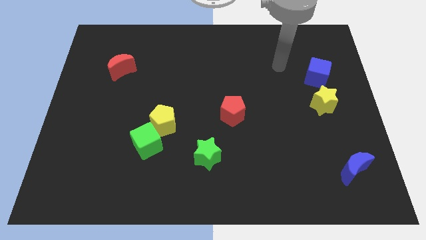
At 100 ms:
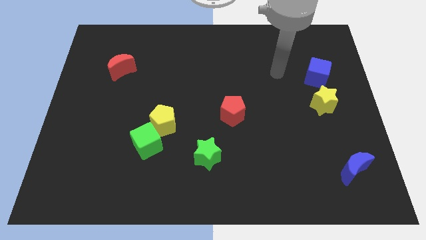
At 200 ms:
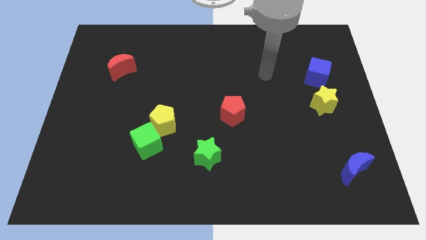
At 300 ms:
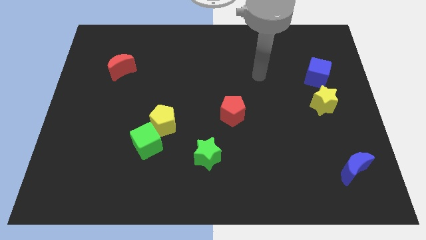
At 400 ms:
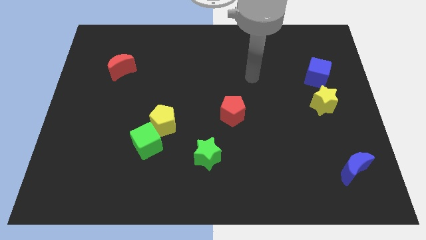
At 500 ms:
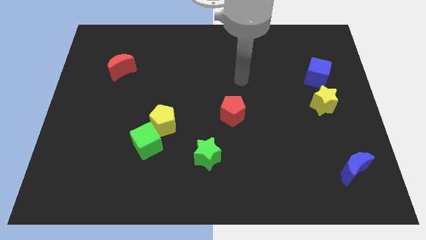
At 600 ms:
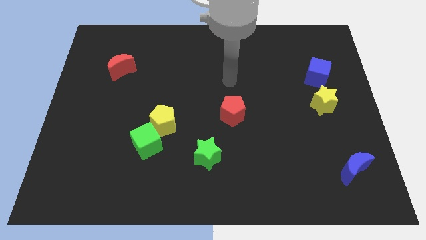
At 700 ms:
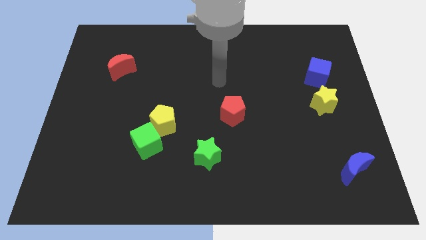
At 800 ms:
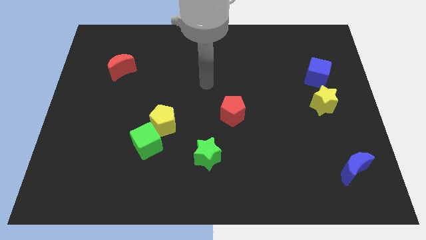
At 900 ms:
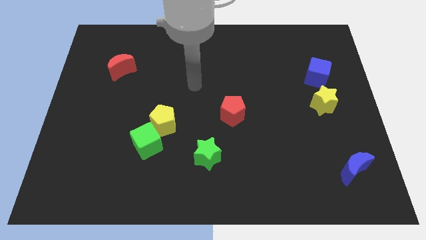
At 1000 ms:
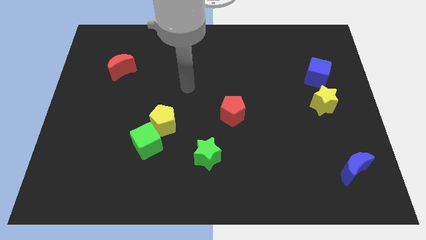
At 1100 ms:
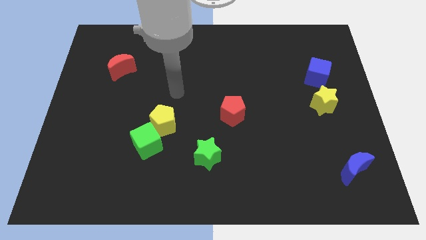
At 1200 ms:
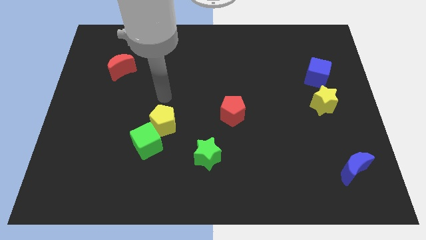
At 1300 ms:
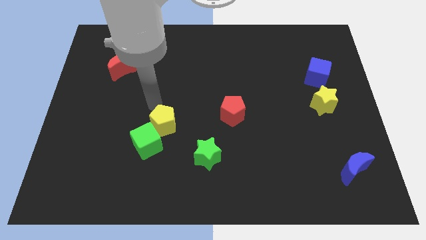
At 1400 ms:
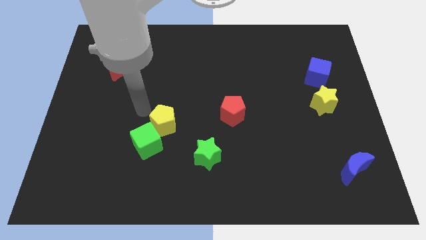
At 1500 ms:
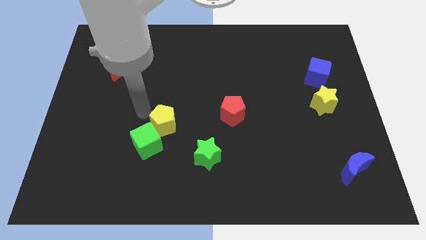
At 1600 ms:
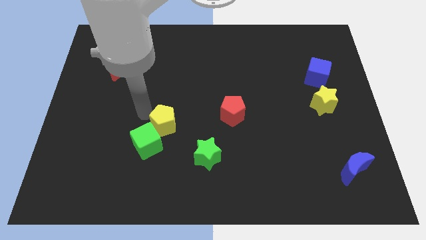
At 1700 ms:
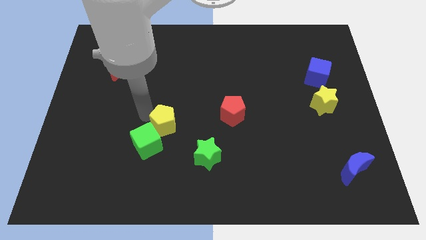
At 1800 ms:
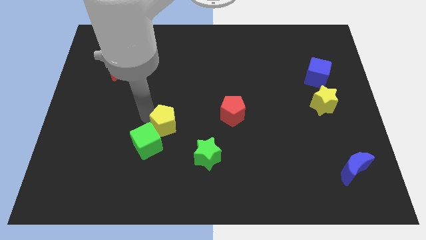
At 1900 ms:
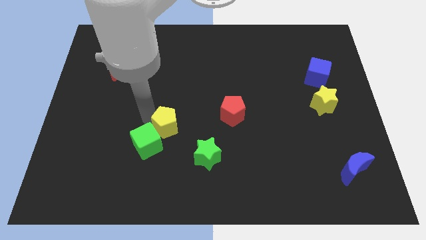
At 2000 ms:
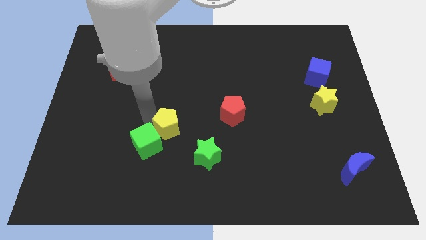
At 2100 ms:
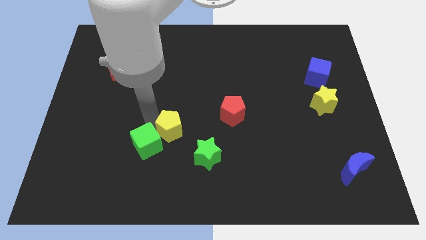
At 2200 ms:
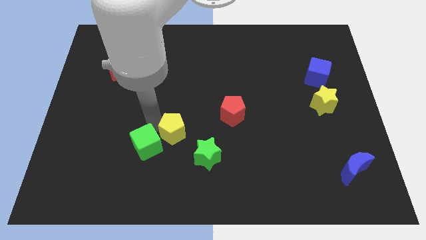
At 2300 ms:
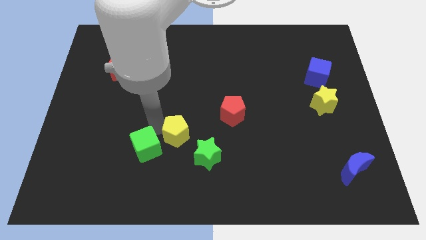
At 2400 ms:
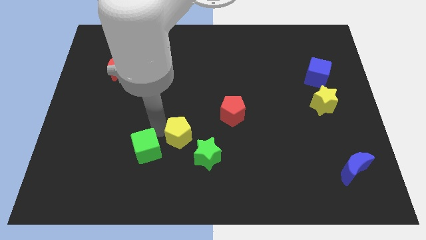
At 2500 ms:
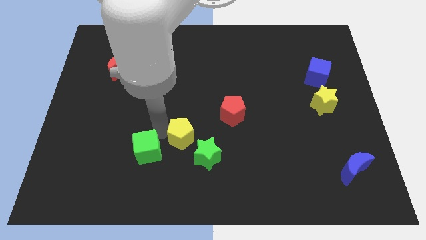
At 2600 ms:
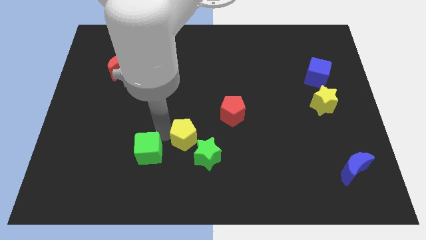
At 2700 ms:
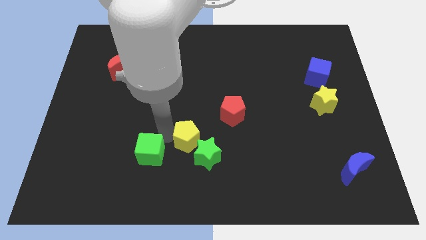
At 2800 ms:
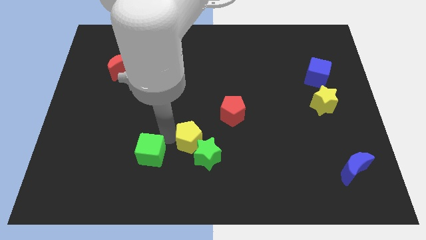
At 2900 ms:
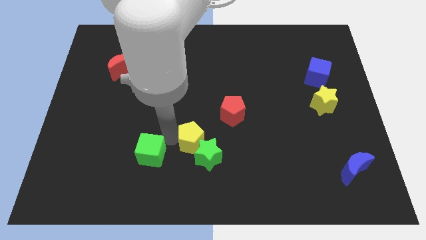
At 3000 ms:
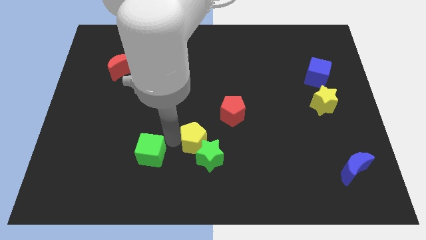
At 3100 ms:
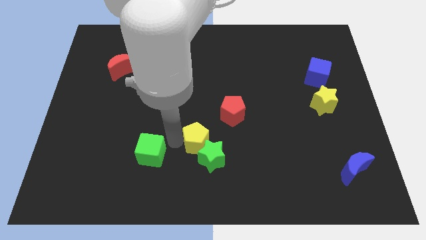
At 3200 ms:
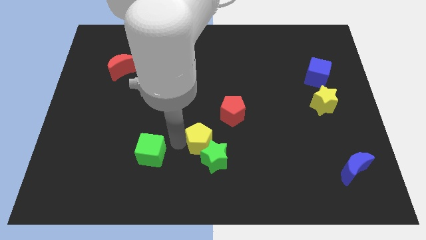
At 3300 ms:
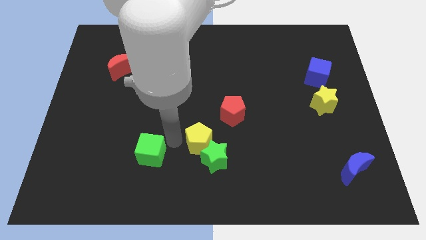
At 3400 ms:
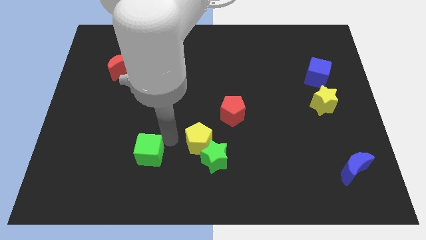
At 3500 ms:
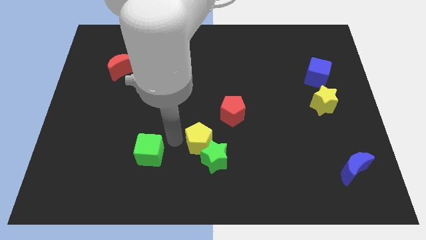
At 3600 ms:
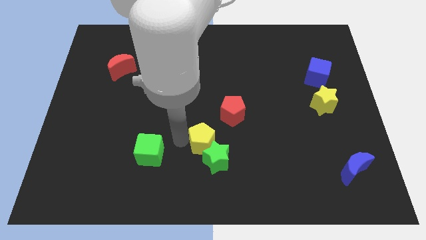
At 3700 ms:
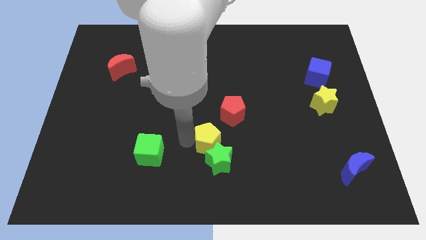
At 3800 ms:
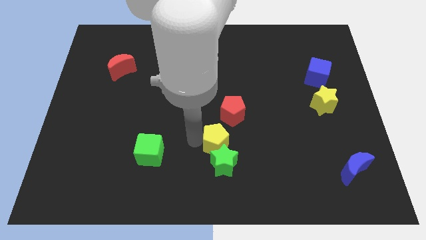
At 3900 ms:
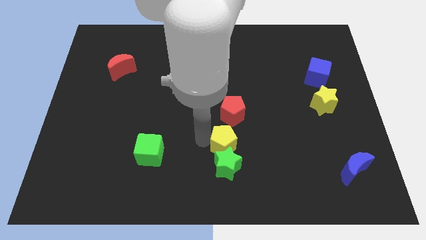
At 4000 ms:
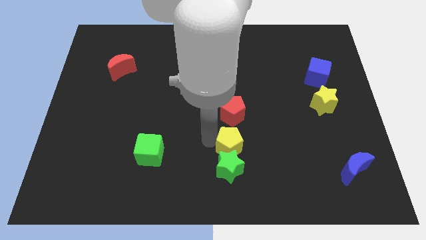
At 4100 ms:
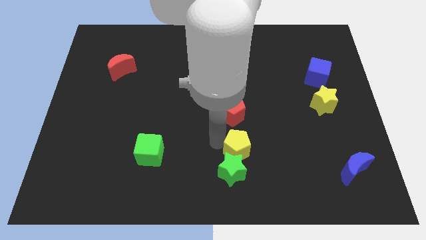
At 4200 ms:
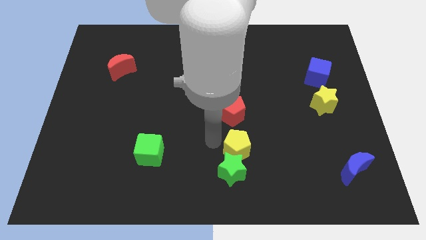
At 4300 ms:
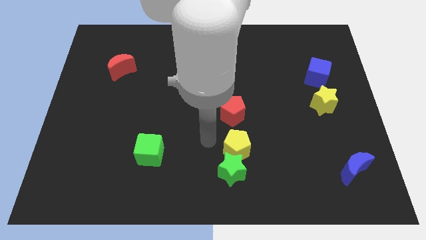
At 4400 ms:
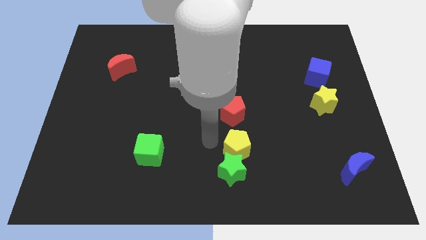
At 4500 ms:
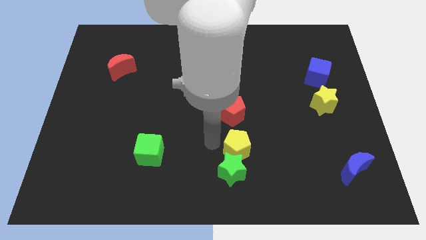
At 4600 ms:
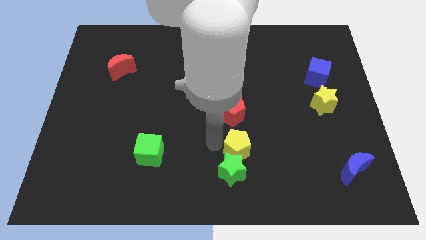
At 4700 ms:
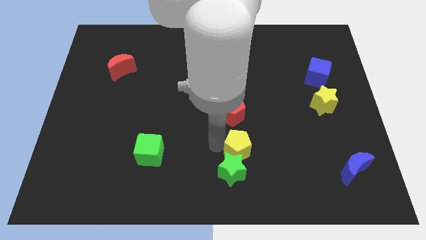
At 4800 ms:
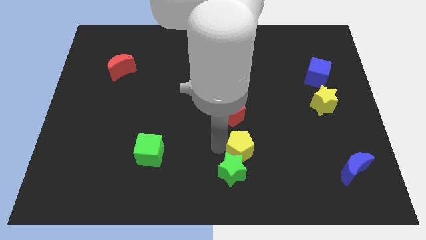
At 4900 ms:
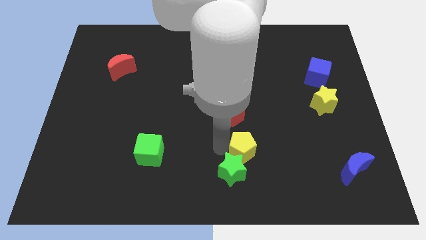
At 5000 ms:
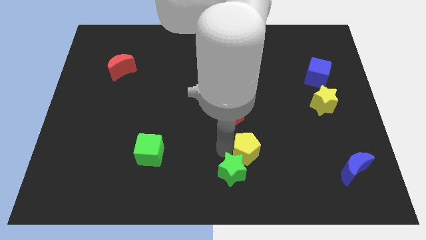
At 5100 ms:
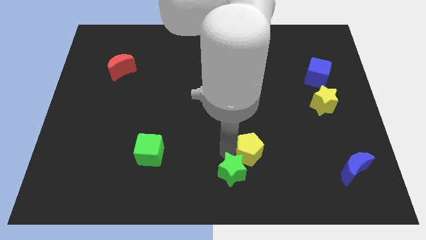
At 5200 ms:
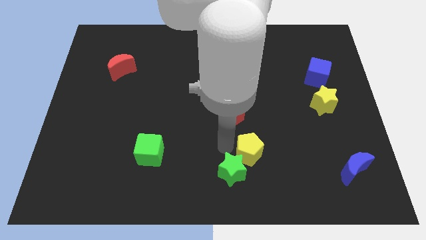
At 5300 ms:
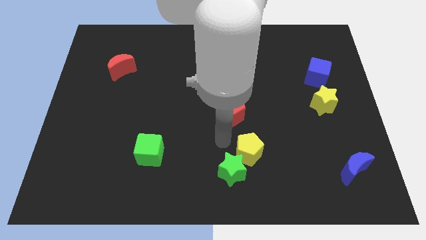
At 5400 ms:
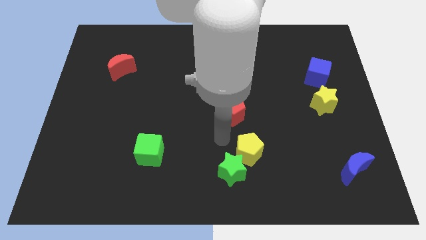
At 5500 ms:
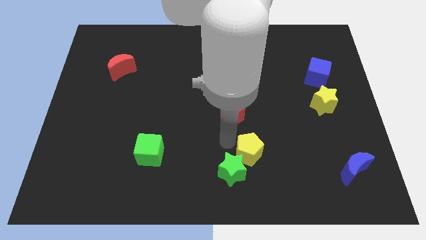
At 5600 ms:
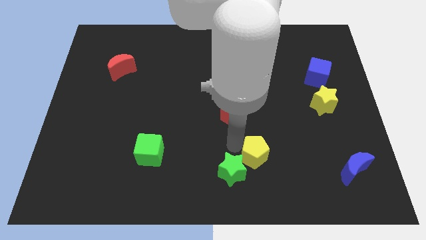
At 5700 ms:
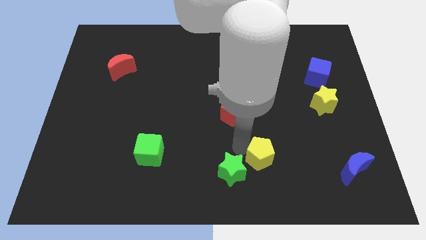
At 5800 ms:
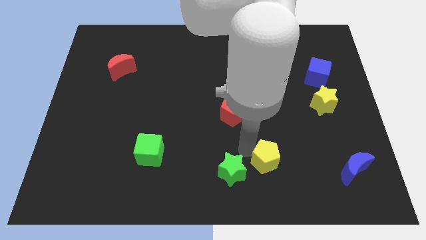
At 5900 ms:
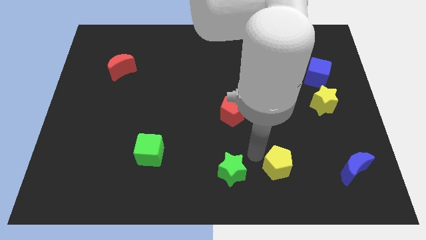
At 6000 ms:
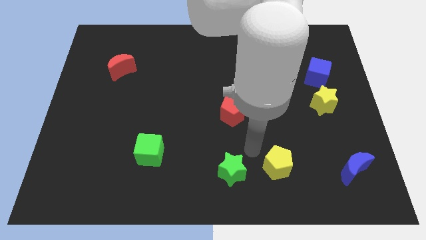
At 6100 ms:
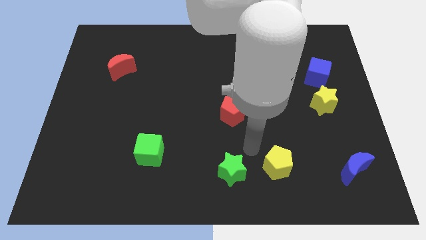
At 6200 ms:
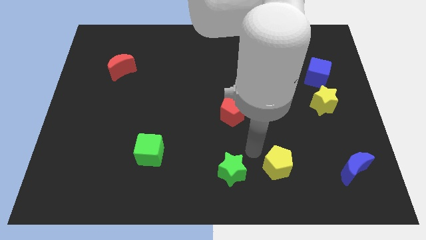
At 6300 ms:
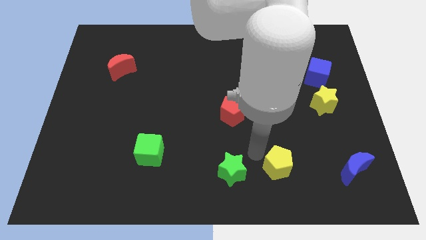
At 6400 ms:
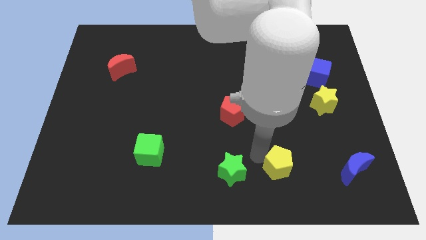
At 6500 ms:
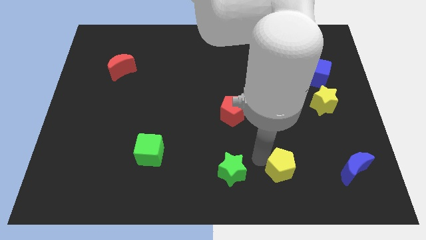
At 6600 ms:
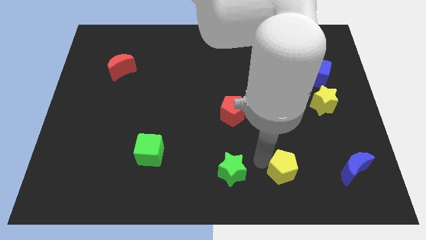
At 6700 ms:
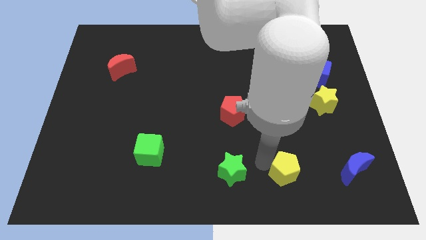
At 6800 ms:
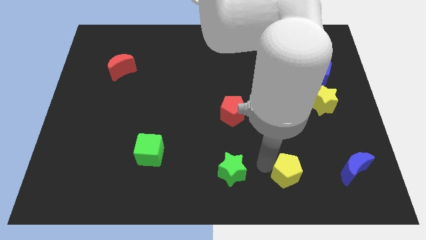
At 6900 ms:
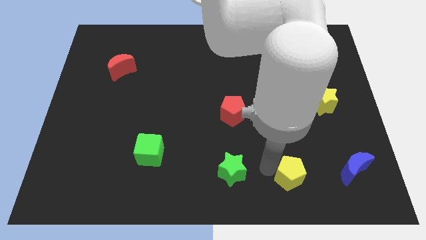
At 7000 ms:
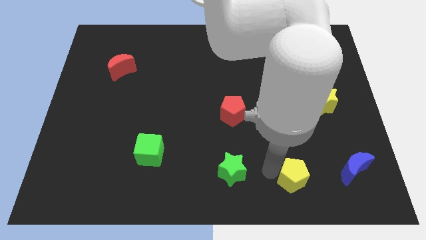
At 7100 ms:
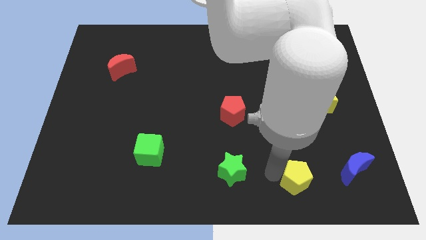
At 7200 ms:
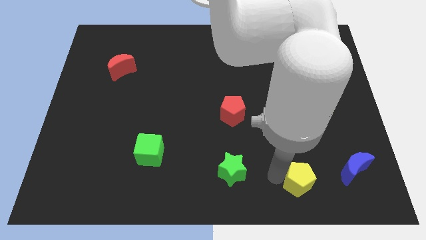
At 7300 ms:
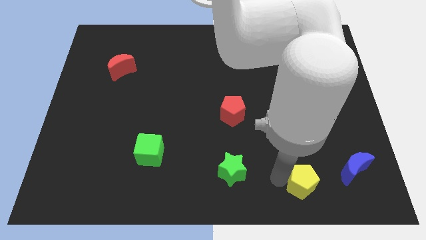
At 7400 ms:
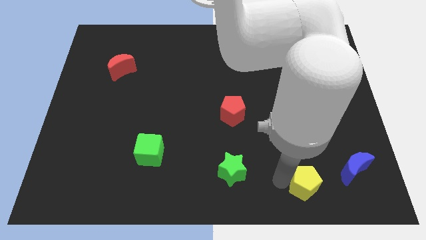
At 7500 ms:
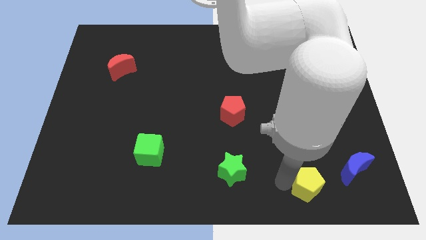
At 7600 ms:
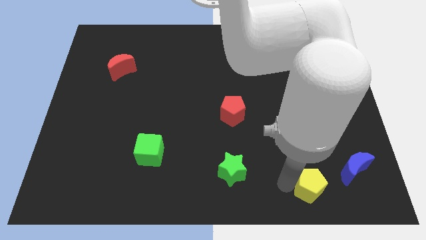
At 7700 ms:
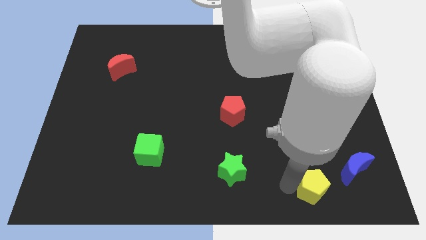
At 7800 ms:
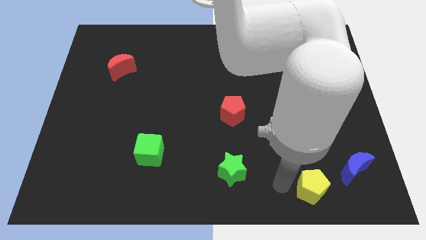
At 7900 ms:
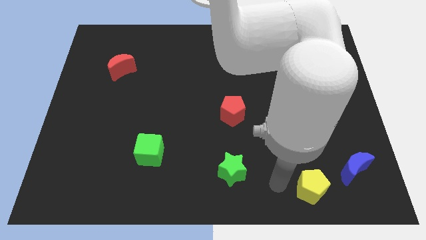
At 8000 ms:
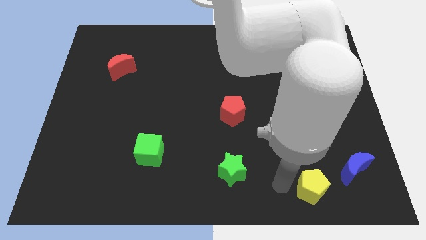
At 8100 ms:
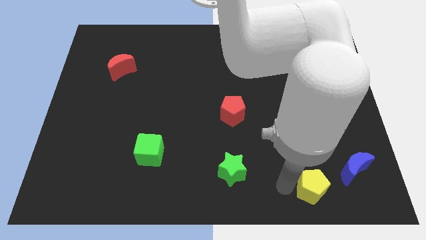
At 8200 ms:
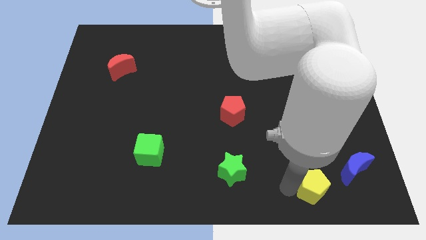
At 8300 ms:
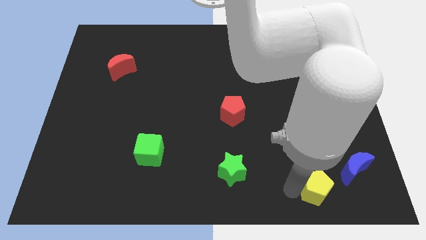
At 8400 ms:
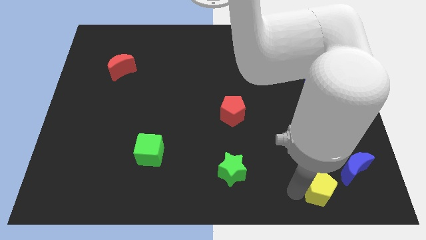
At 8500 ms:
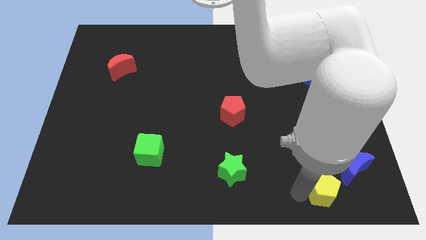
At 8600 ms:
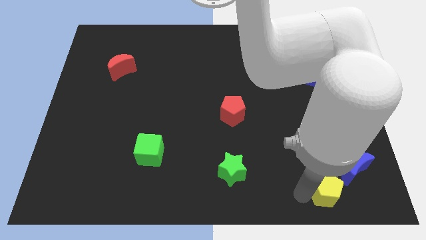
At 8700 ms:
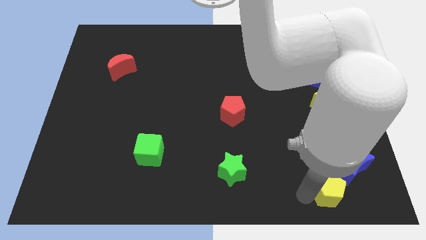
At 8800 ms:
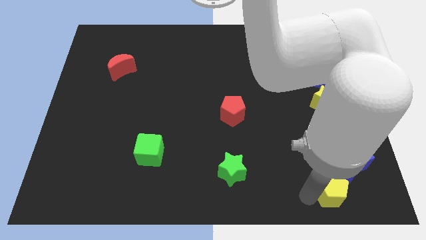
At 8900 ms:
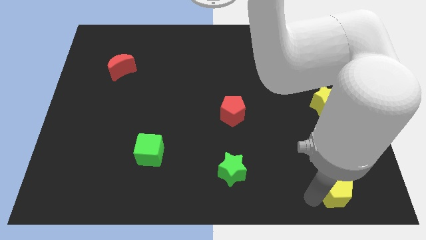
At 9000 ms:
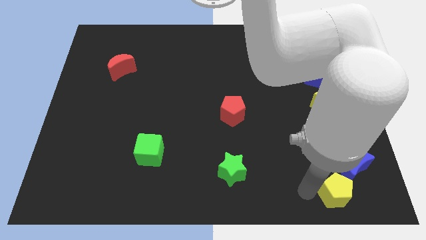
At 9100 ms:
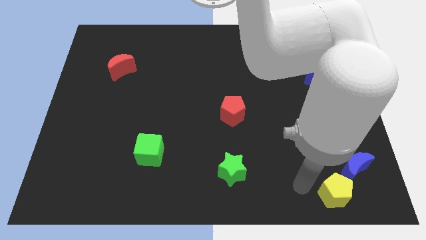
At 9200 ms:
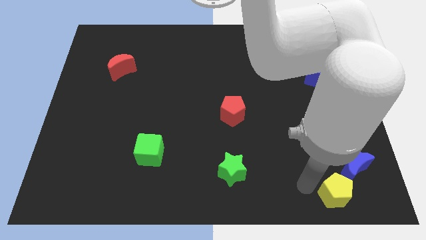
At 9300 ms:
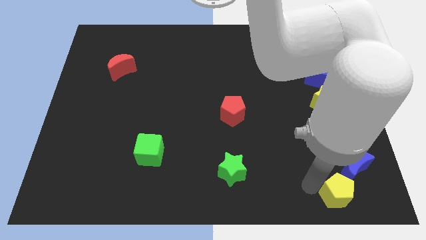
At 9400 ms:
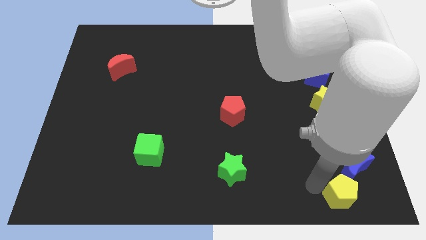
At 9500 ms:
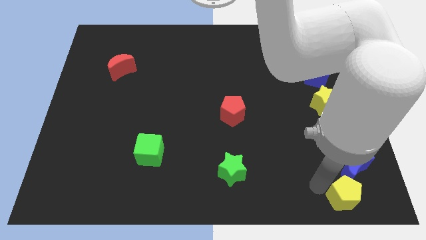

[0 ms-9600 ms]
put the yellow pentagon to the bottom right
